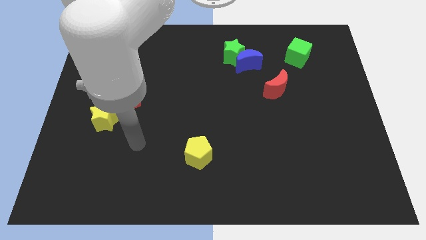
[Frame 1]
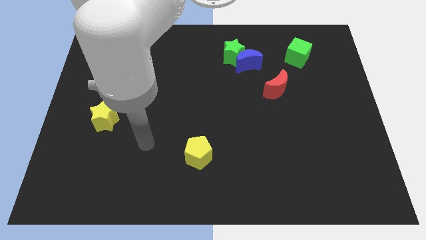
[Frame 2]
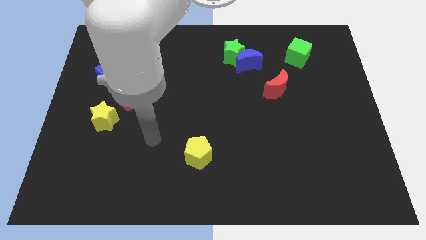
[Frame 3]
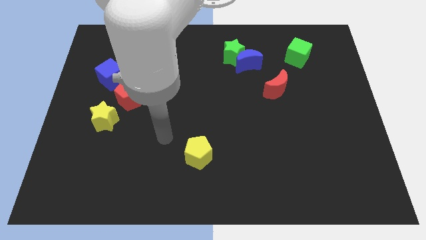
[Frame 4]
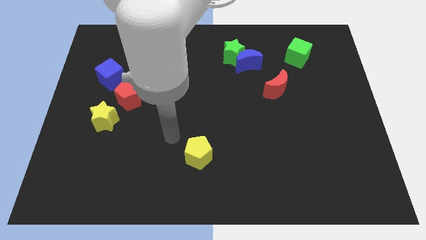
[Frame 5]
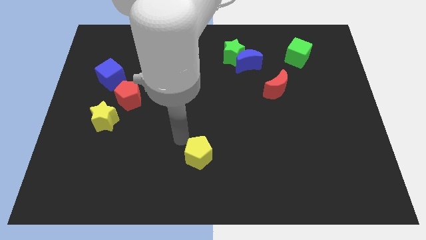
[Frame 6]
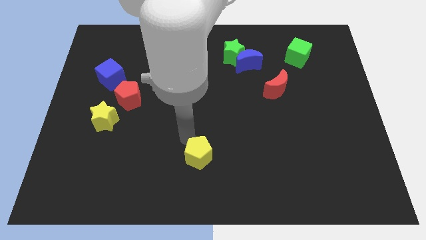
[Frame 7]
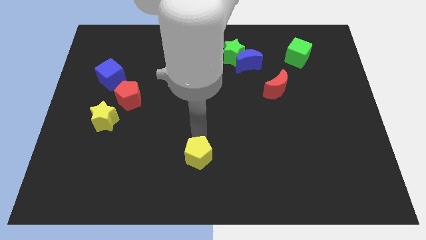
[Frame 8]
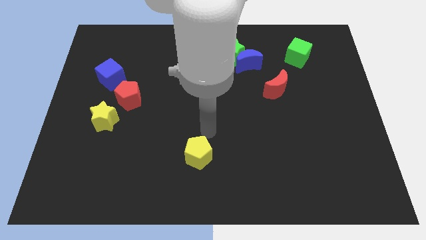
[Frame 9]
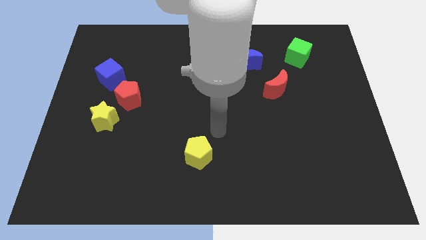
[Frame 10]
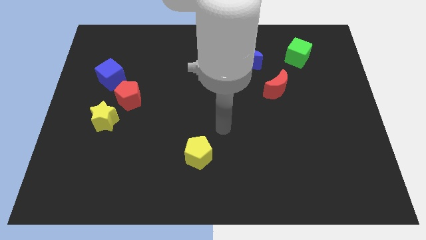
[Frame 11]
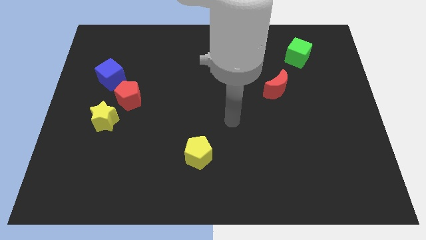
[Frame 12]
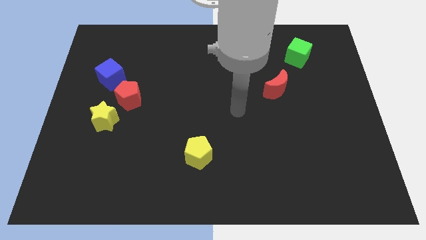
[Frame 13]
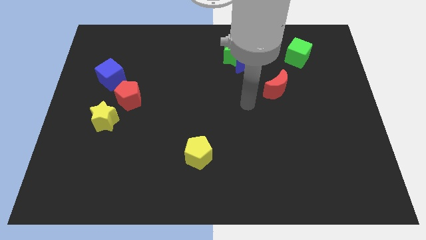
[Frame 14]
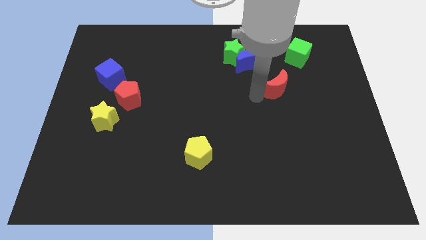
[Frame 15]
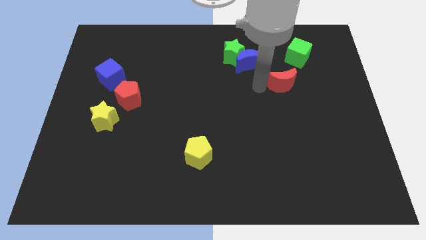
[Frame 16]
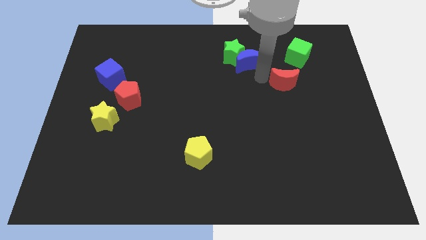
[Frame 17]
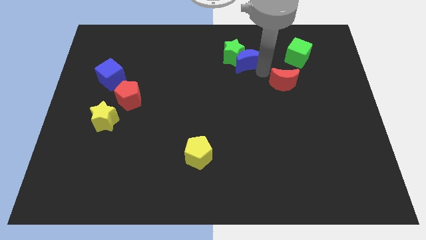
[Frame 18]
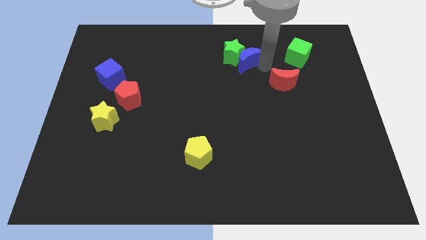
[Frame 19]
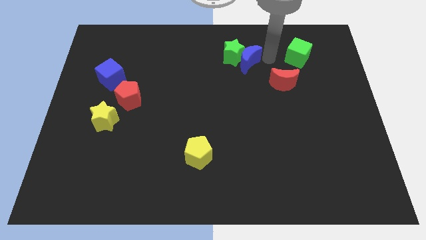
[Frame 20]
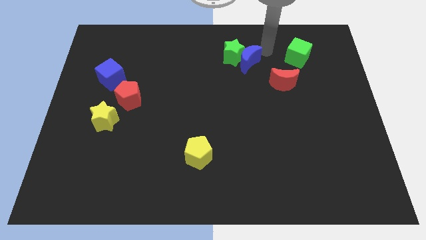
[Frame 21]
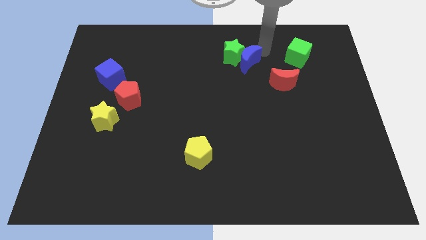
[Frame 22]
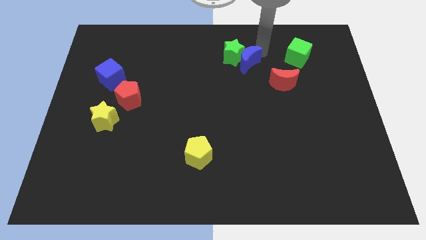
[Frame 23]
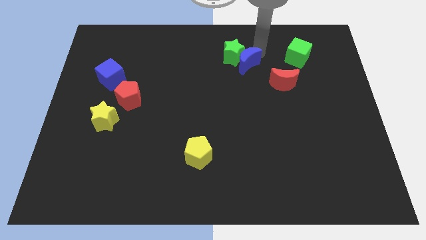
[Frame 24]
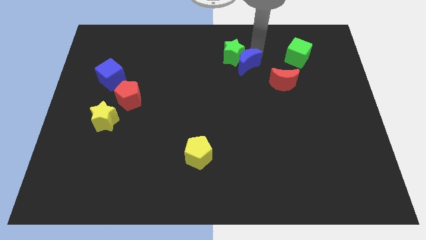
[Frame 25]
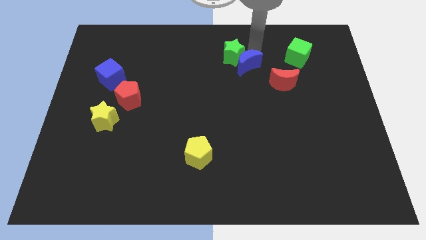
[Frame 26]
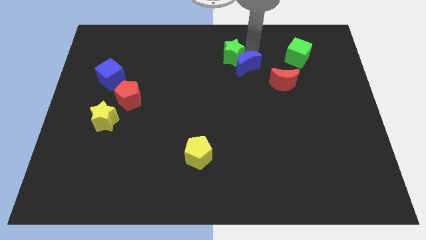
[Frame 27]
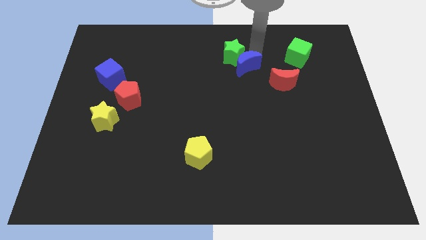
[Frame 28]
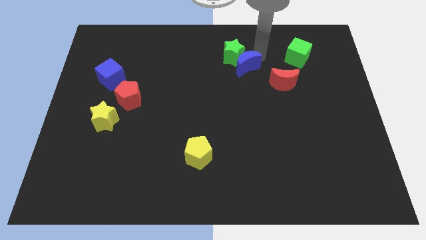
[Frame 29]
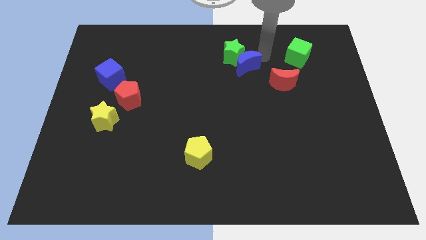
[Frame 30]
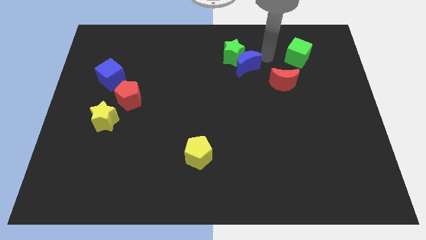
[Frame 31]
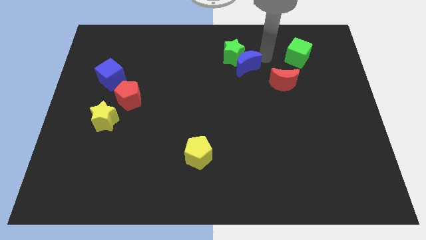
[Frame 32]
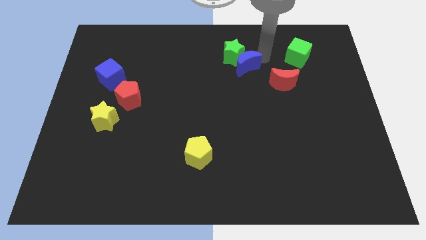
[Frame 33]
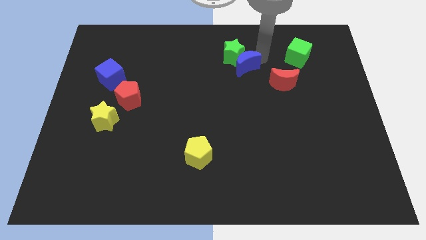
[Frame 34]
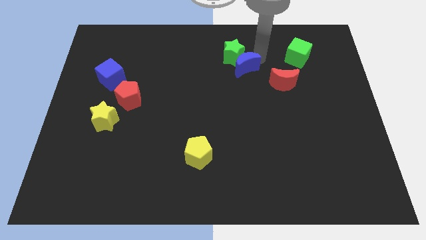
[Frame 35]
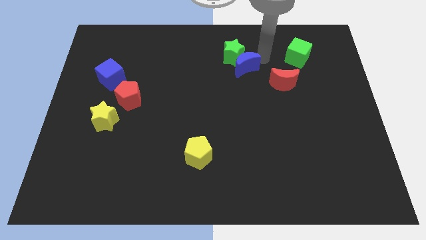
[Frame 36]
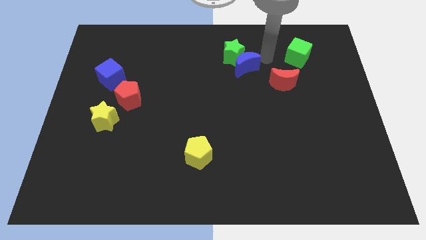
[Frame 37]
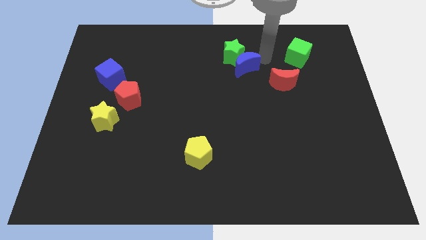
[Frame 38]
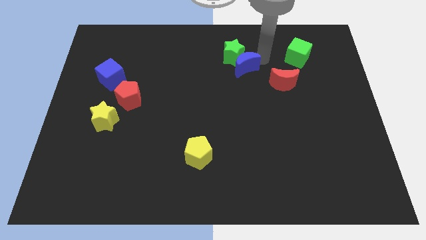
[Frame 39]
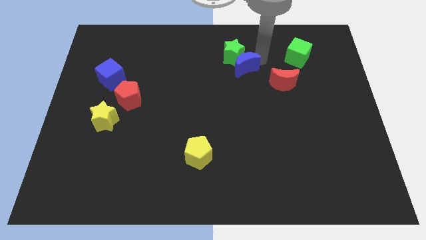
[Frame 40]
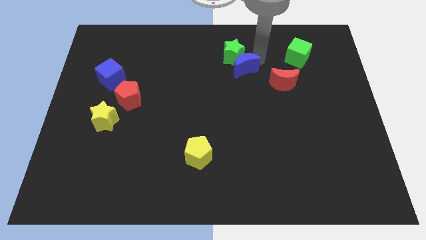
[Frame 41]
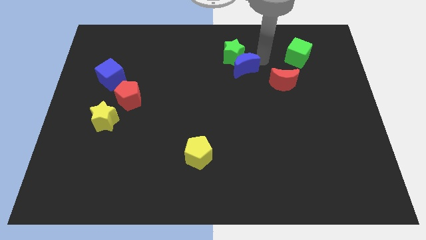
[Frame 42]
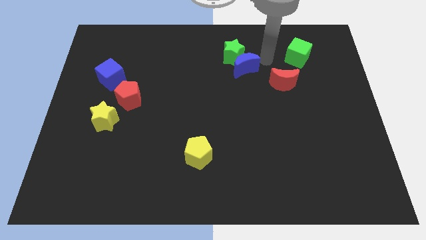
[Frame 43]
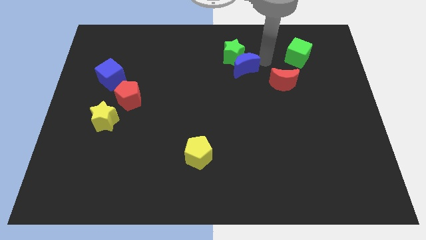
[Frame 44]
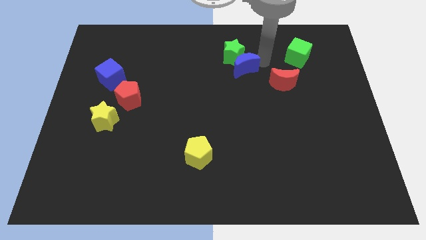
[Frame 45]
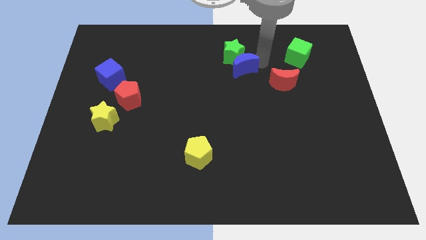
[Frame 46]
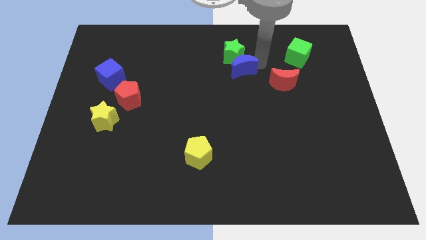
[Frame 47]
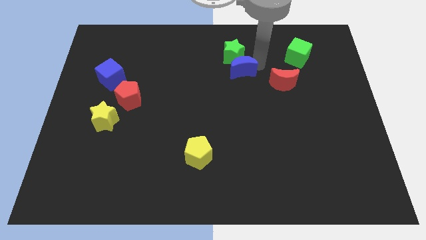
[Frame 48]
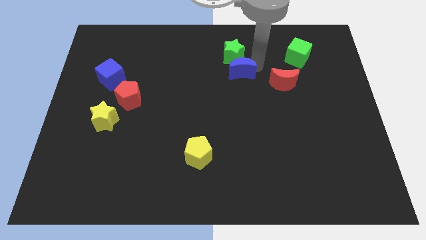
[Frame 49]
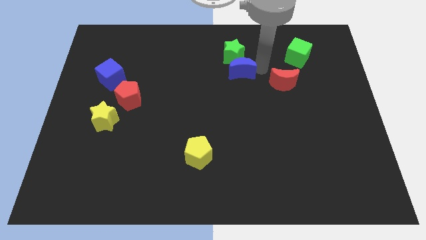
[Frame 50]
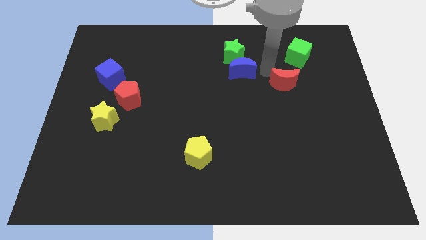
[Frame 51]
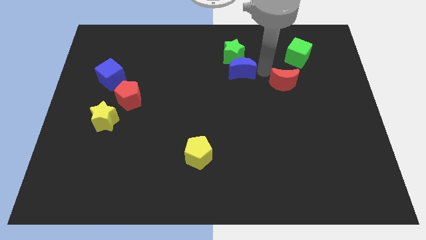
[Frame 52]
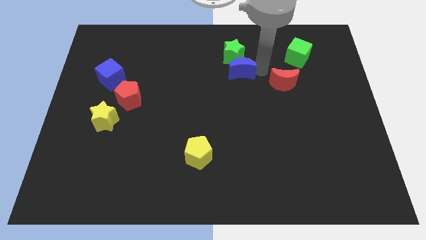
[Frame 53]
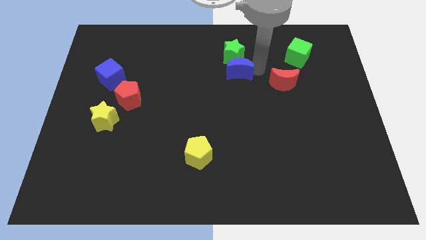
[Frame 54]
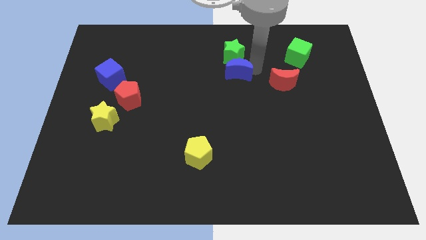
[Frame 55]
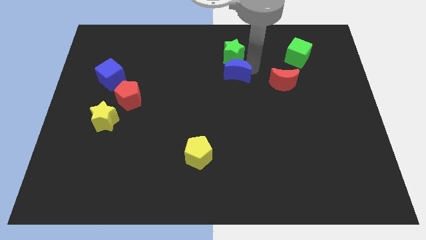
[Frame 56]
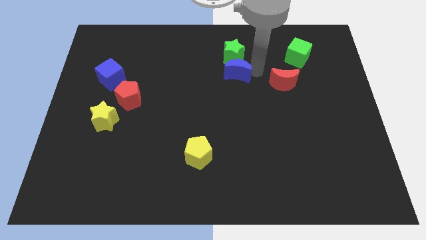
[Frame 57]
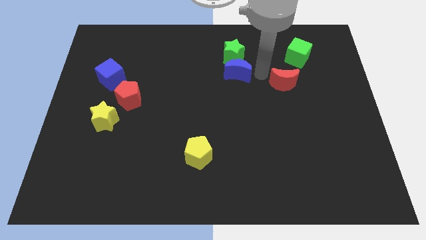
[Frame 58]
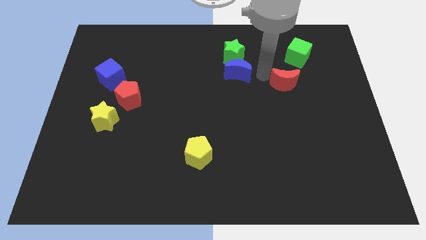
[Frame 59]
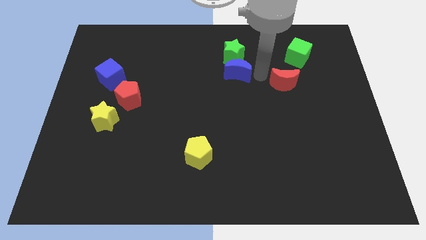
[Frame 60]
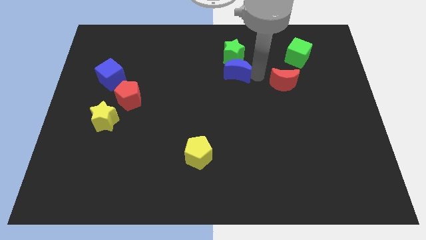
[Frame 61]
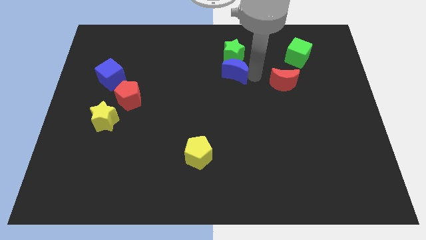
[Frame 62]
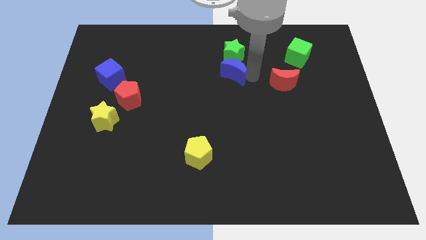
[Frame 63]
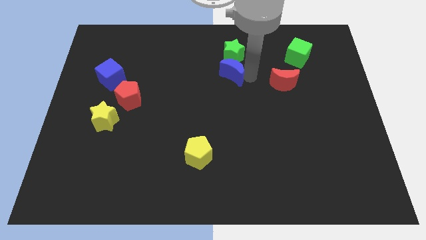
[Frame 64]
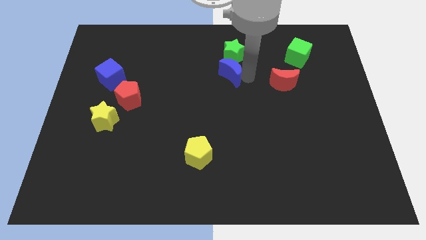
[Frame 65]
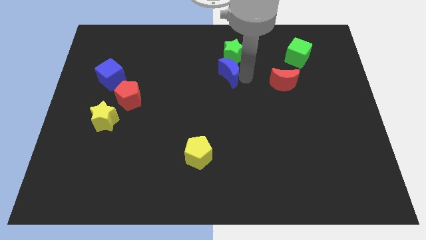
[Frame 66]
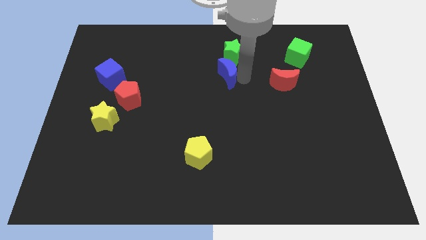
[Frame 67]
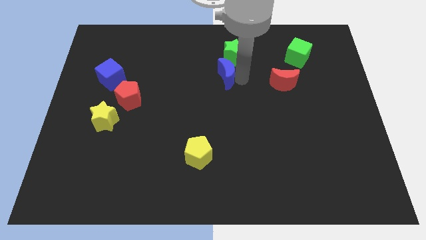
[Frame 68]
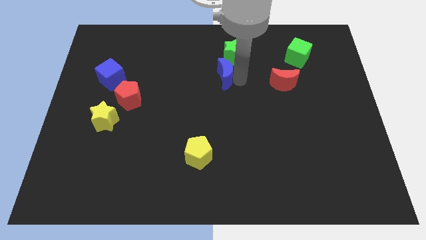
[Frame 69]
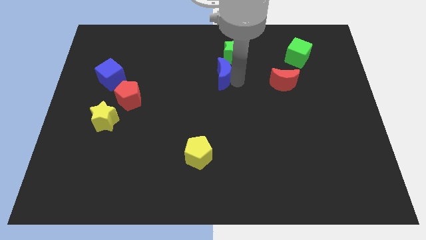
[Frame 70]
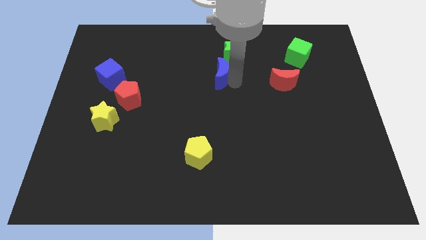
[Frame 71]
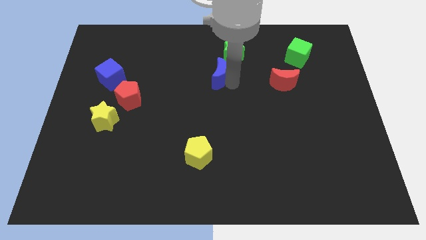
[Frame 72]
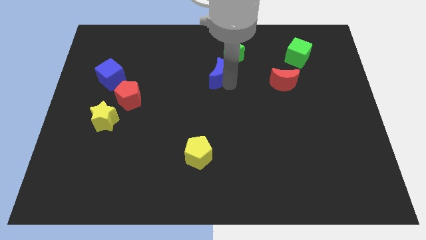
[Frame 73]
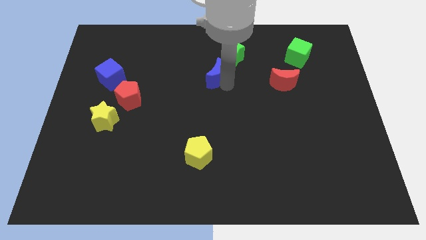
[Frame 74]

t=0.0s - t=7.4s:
slightly move the blue moon left

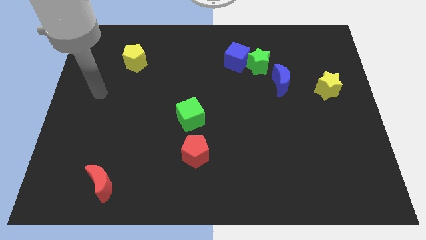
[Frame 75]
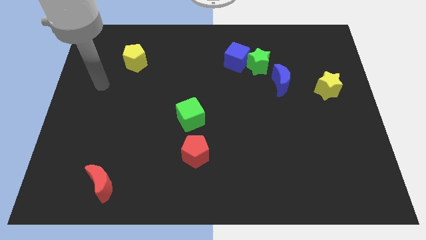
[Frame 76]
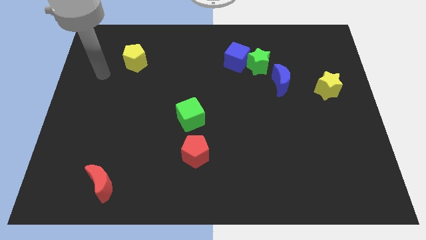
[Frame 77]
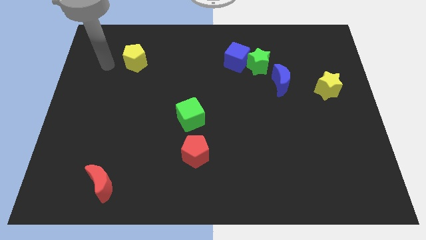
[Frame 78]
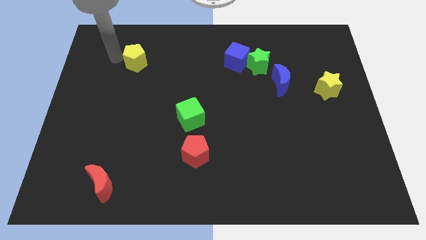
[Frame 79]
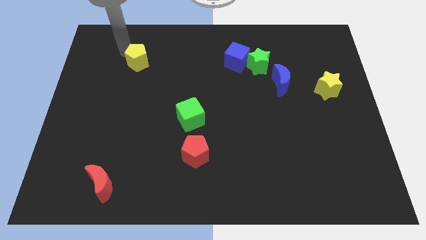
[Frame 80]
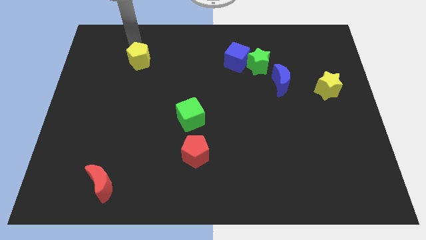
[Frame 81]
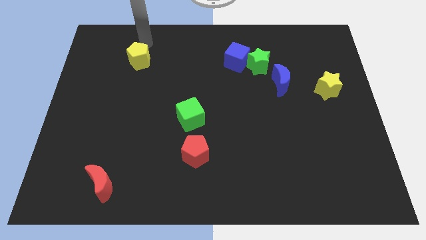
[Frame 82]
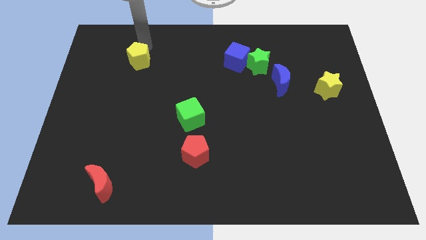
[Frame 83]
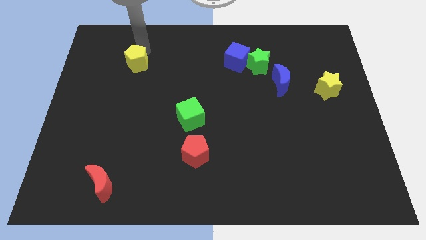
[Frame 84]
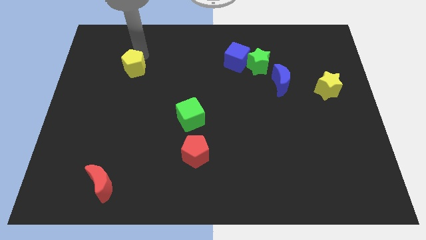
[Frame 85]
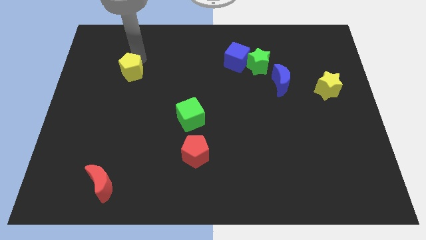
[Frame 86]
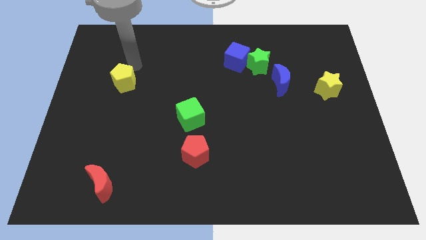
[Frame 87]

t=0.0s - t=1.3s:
move the yellow pentagon a little bit down
